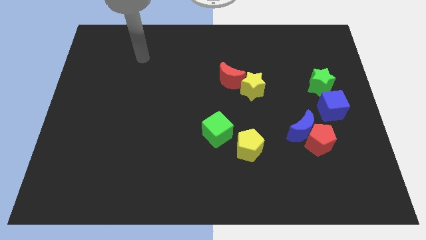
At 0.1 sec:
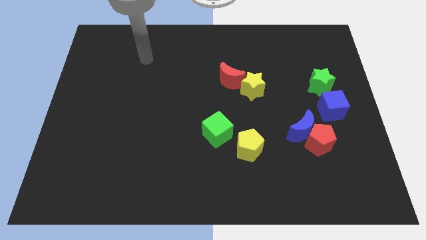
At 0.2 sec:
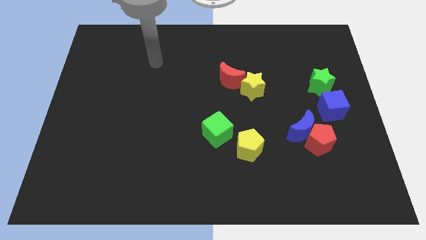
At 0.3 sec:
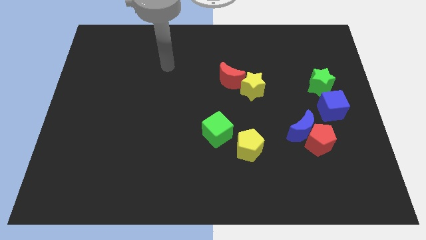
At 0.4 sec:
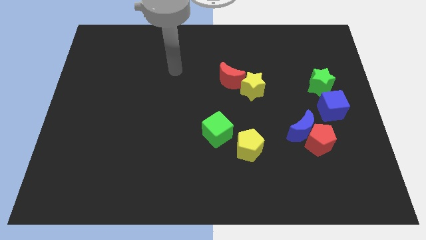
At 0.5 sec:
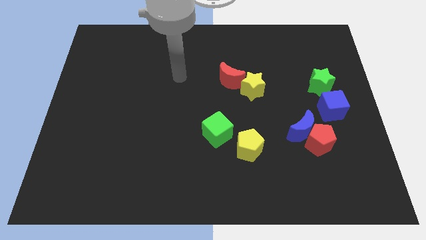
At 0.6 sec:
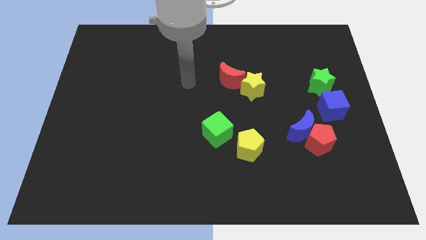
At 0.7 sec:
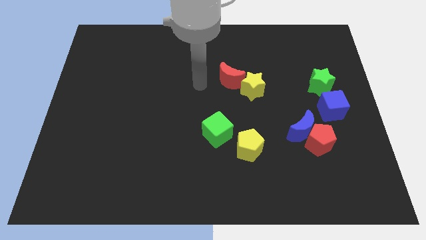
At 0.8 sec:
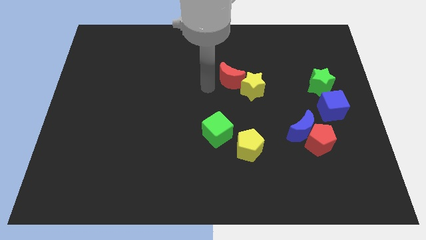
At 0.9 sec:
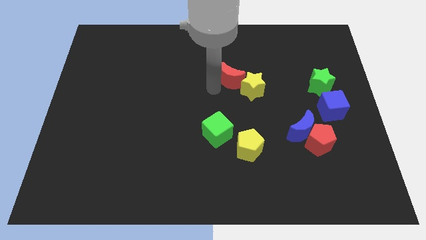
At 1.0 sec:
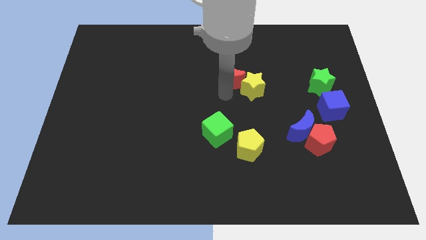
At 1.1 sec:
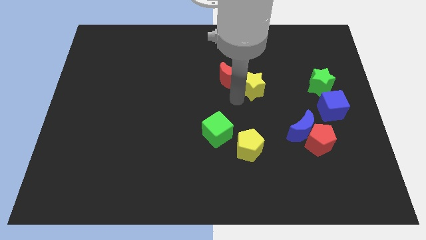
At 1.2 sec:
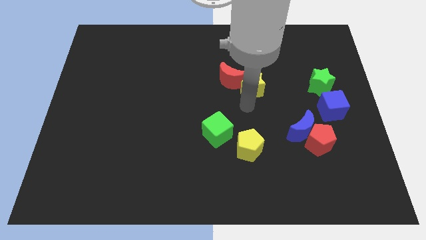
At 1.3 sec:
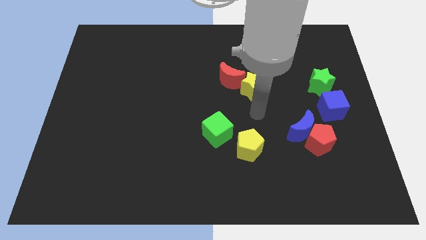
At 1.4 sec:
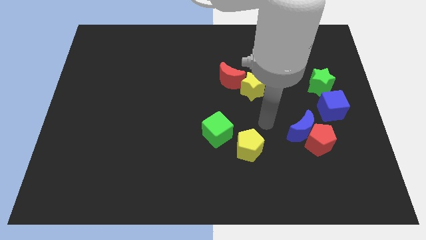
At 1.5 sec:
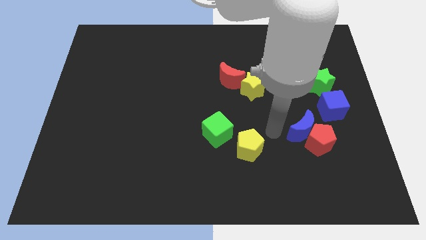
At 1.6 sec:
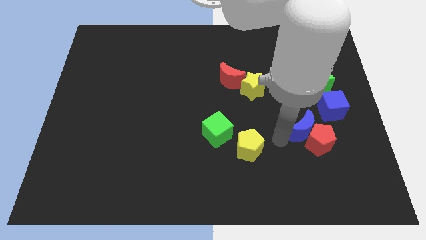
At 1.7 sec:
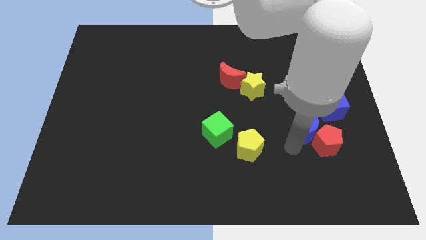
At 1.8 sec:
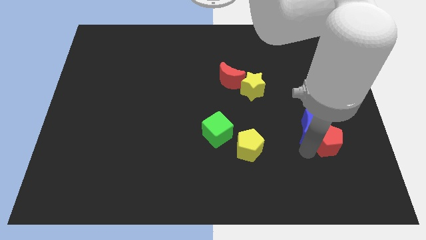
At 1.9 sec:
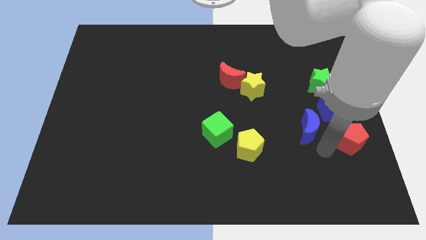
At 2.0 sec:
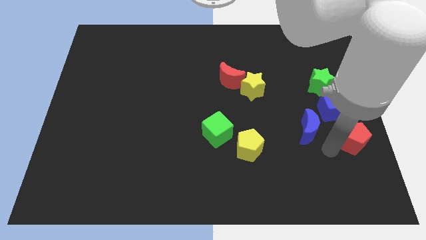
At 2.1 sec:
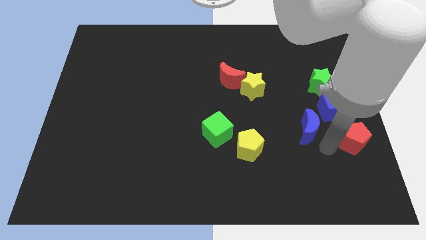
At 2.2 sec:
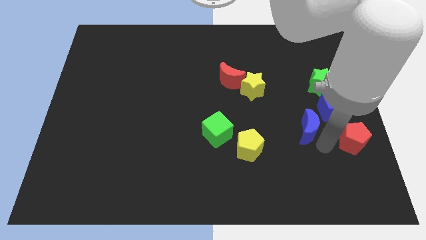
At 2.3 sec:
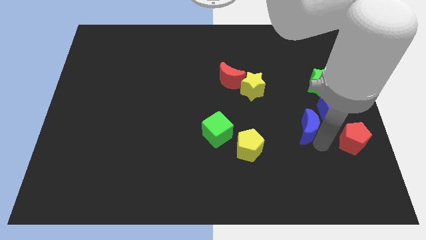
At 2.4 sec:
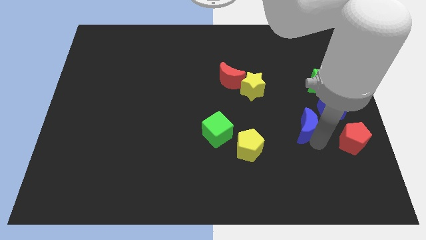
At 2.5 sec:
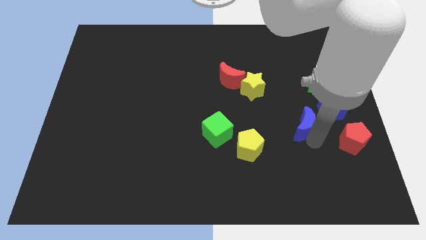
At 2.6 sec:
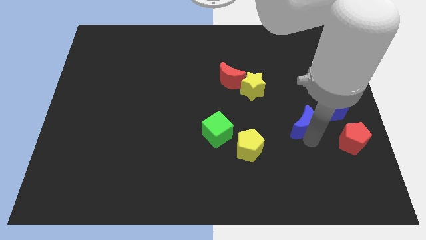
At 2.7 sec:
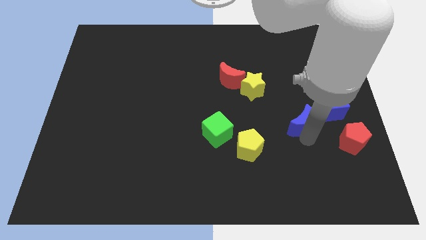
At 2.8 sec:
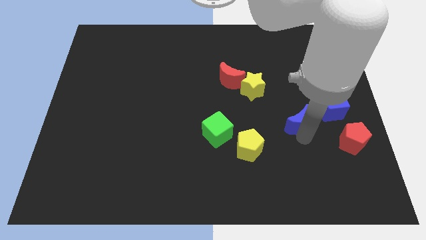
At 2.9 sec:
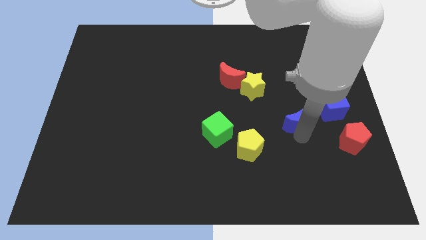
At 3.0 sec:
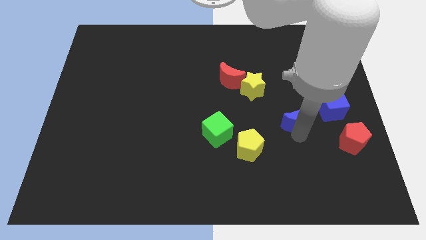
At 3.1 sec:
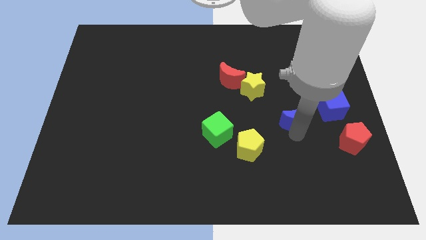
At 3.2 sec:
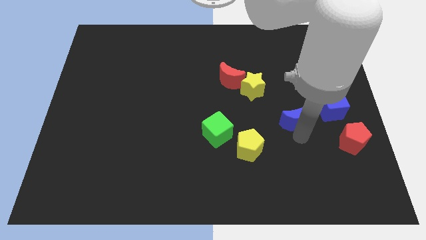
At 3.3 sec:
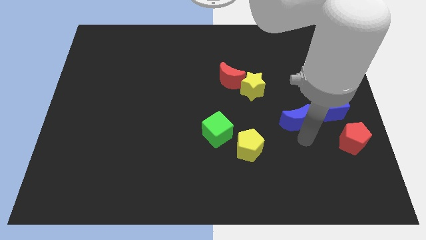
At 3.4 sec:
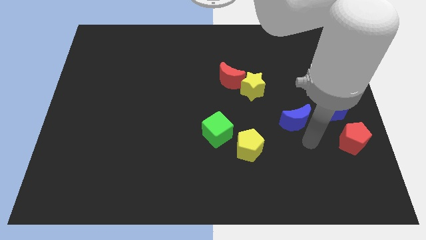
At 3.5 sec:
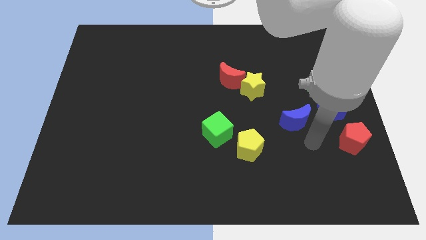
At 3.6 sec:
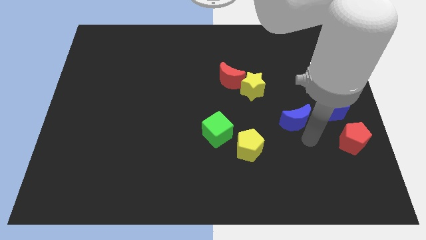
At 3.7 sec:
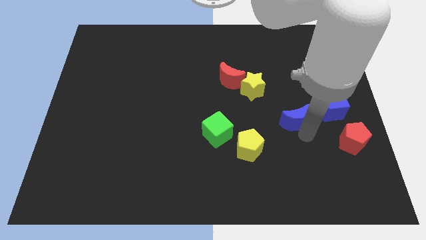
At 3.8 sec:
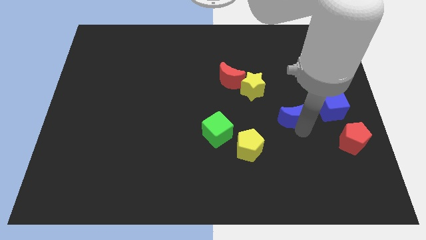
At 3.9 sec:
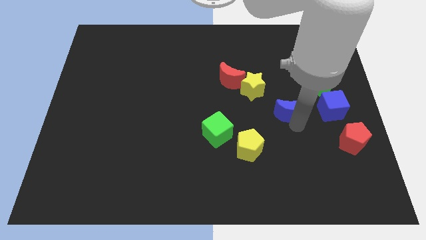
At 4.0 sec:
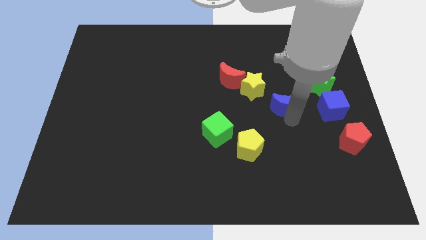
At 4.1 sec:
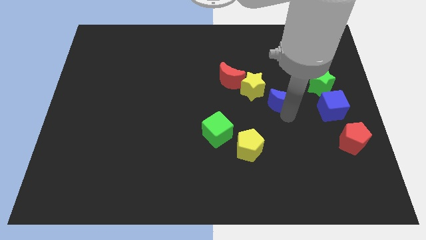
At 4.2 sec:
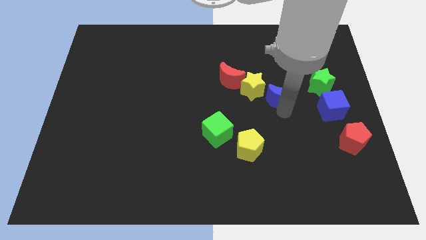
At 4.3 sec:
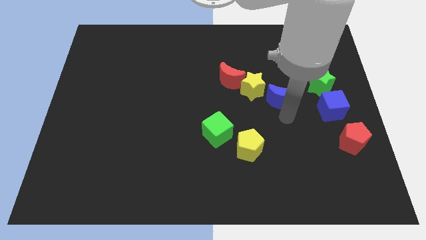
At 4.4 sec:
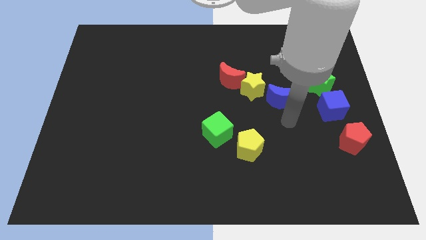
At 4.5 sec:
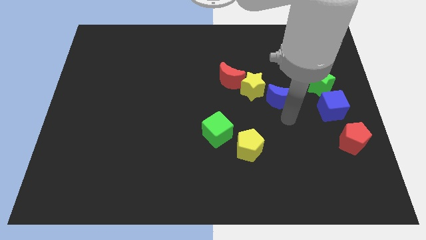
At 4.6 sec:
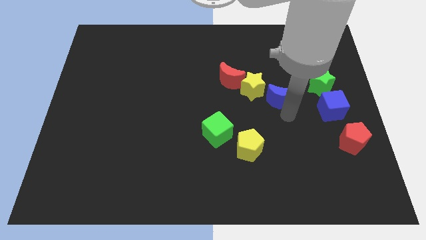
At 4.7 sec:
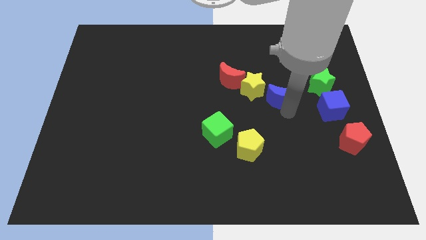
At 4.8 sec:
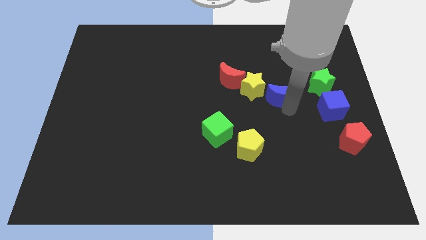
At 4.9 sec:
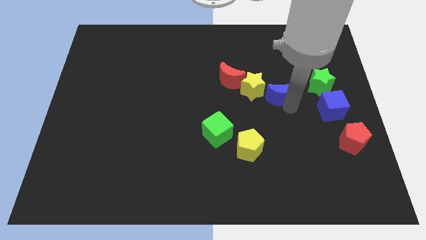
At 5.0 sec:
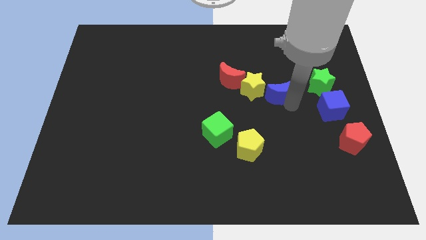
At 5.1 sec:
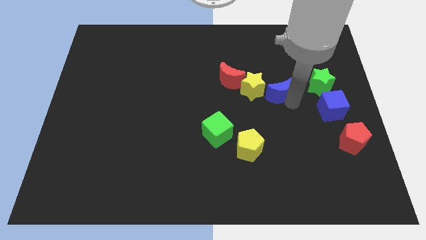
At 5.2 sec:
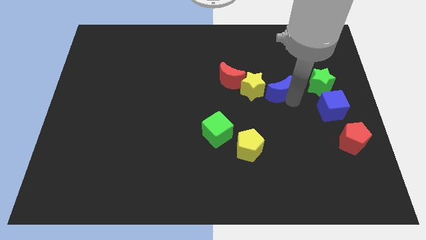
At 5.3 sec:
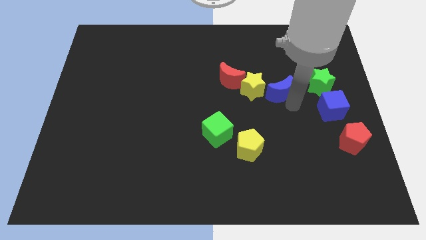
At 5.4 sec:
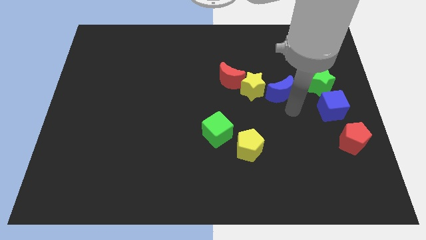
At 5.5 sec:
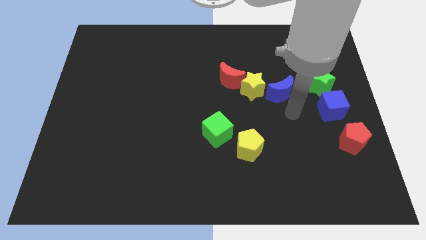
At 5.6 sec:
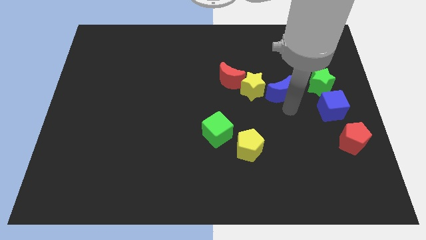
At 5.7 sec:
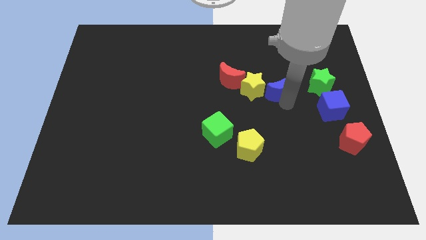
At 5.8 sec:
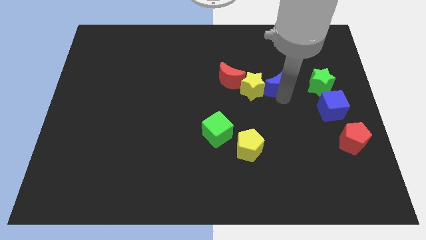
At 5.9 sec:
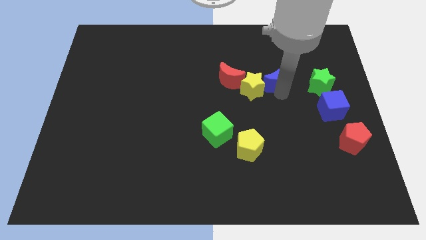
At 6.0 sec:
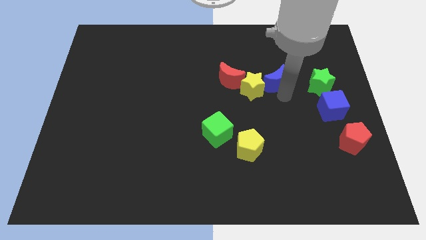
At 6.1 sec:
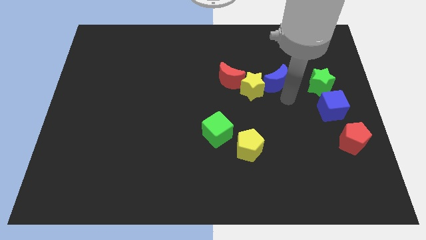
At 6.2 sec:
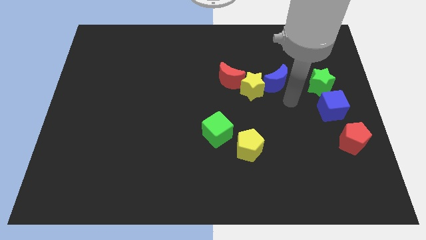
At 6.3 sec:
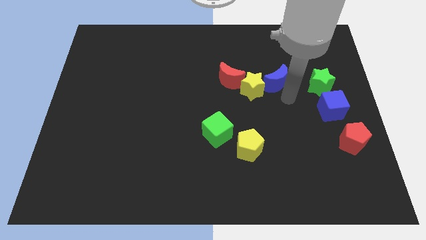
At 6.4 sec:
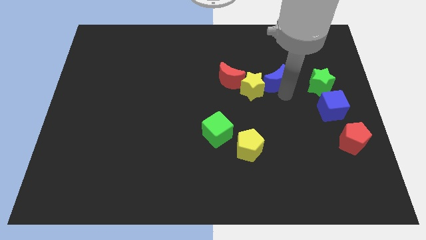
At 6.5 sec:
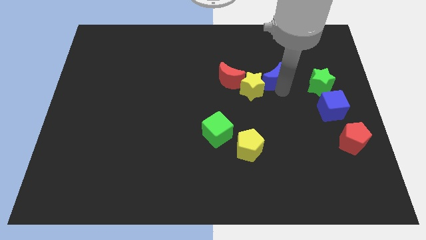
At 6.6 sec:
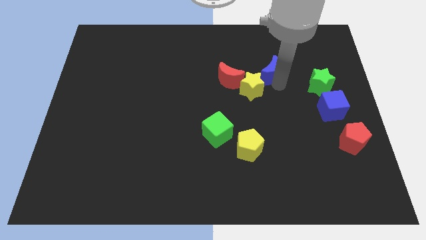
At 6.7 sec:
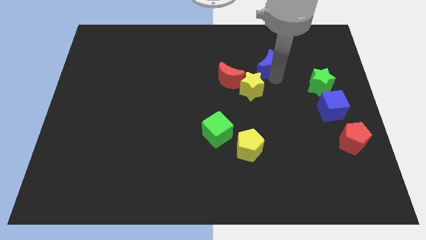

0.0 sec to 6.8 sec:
push the blue moon above the yellow star

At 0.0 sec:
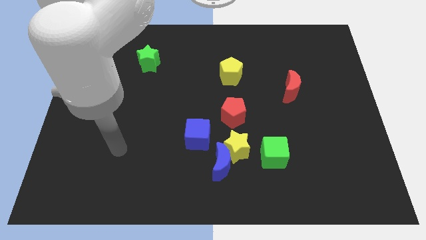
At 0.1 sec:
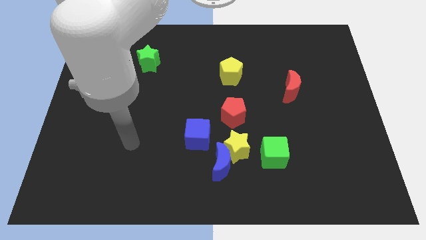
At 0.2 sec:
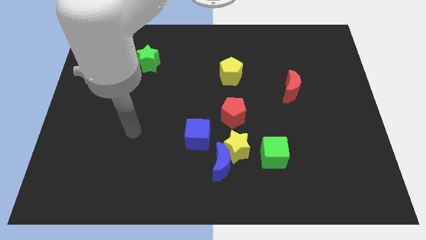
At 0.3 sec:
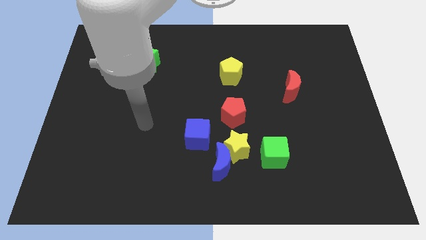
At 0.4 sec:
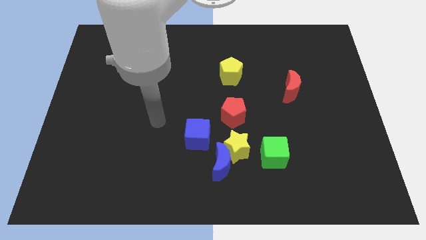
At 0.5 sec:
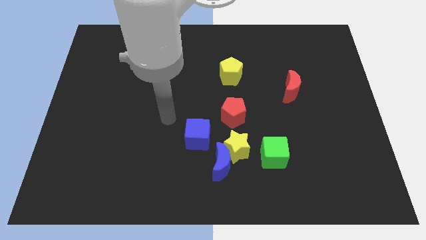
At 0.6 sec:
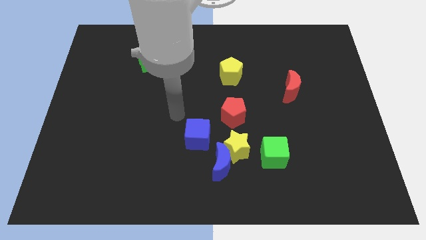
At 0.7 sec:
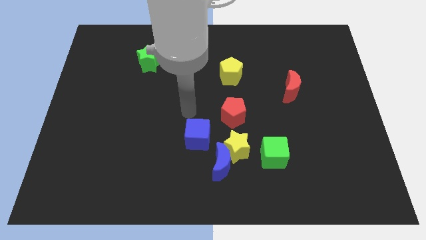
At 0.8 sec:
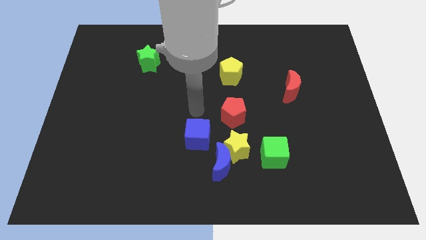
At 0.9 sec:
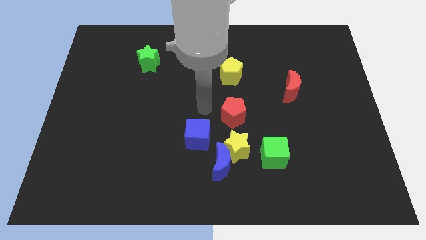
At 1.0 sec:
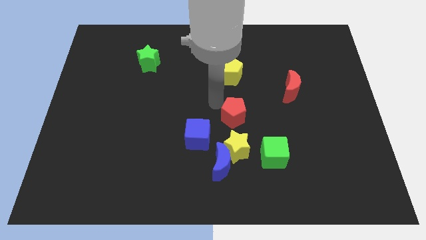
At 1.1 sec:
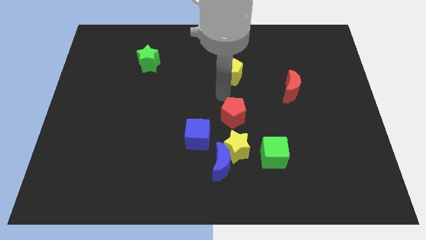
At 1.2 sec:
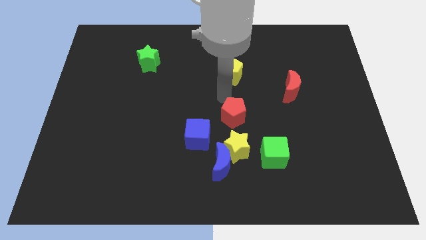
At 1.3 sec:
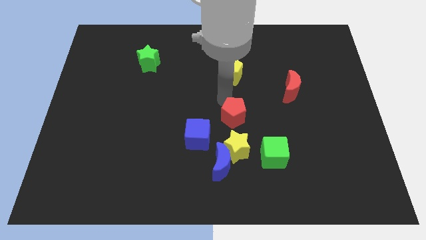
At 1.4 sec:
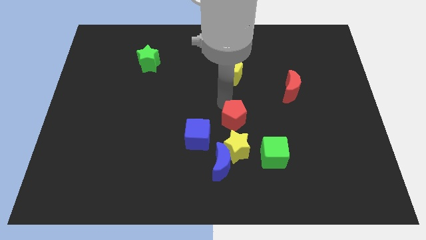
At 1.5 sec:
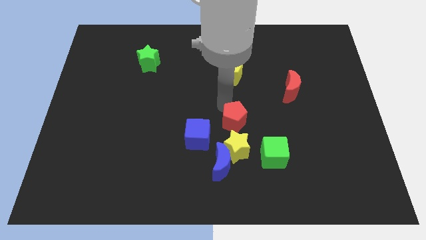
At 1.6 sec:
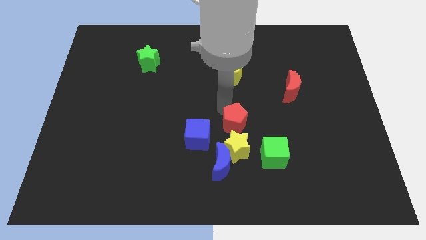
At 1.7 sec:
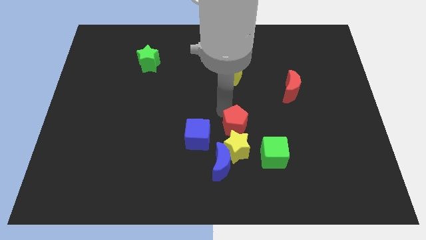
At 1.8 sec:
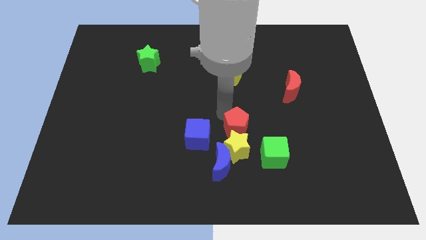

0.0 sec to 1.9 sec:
slide the red pentagon to the top right side of the blue moon
